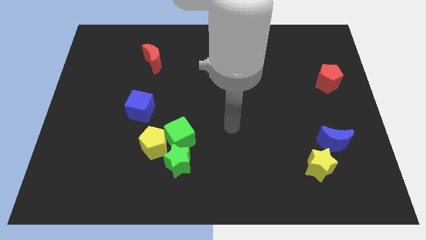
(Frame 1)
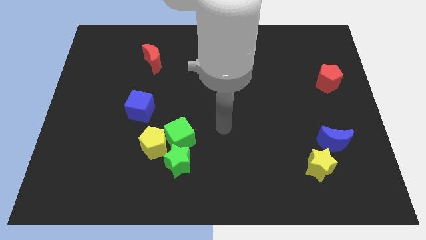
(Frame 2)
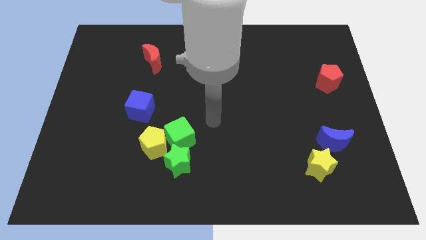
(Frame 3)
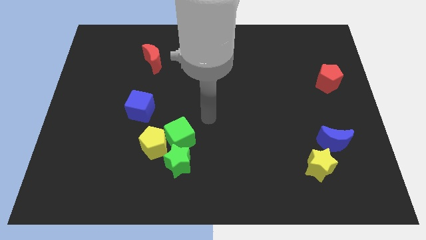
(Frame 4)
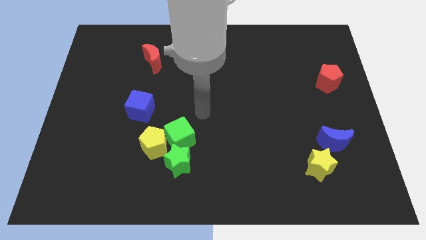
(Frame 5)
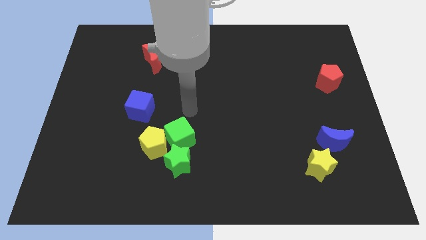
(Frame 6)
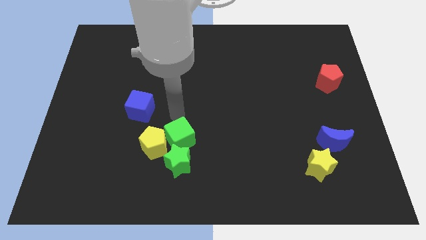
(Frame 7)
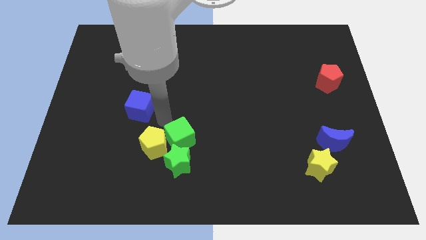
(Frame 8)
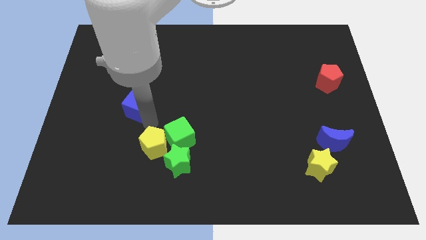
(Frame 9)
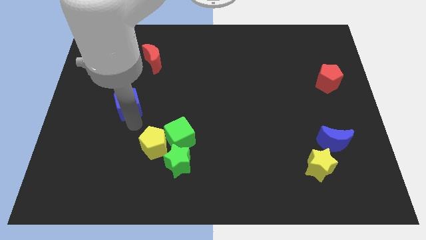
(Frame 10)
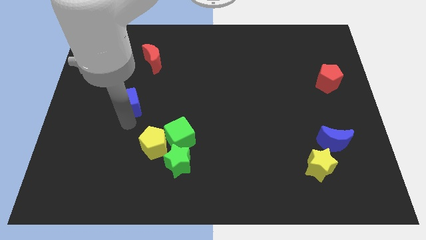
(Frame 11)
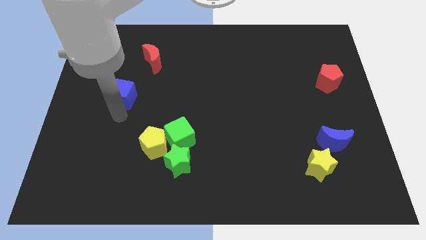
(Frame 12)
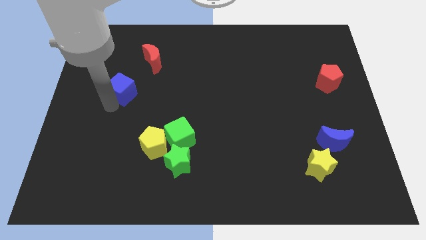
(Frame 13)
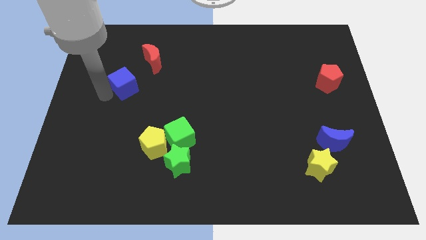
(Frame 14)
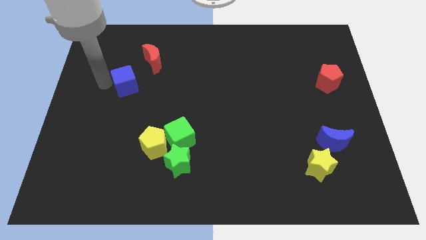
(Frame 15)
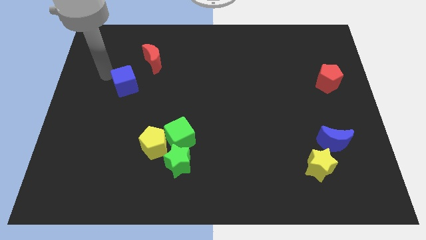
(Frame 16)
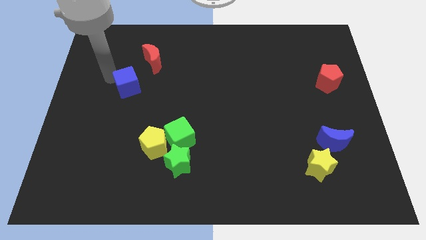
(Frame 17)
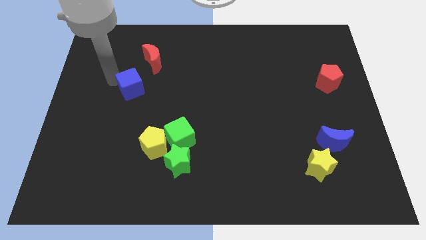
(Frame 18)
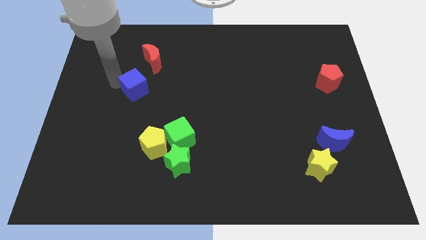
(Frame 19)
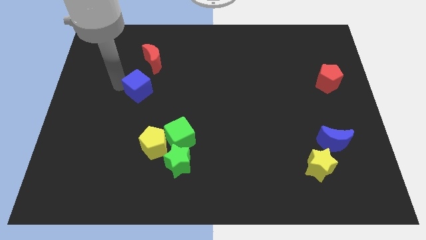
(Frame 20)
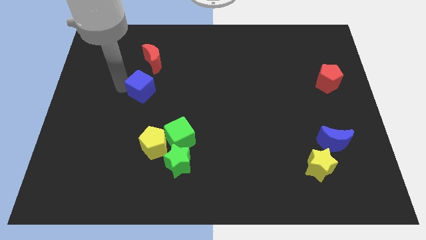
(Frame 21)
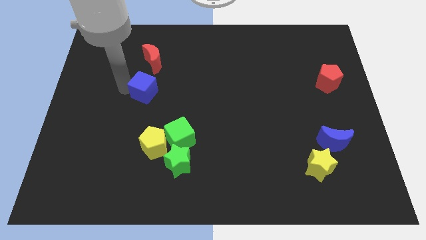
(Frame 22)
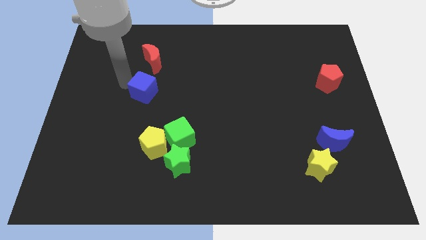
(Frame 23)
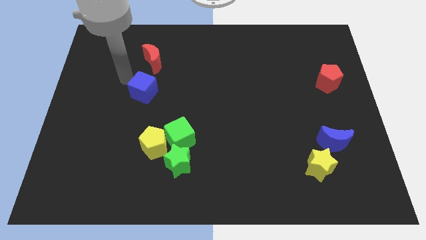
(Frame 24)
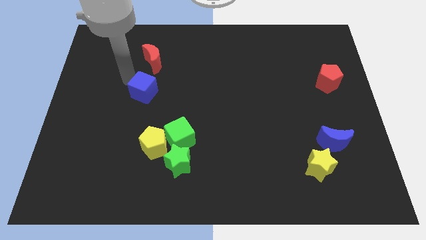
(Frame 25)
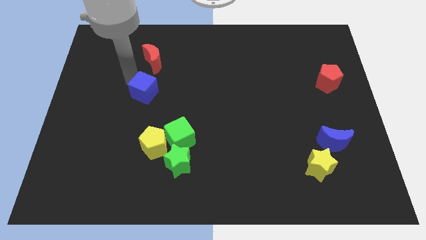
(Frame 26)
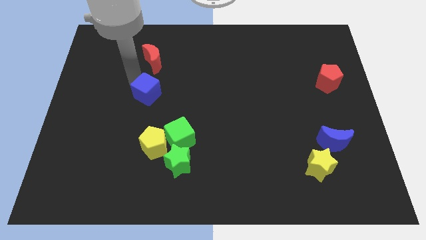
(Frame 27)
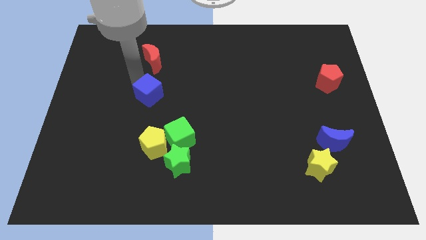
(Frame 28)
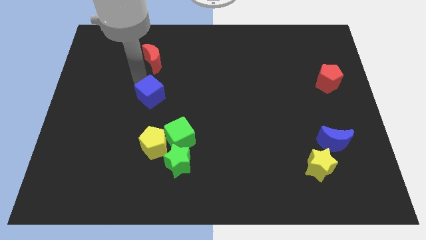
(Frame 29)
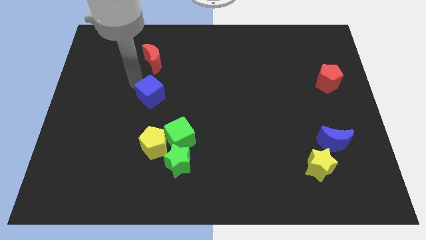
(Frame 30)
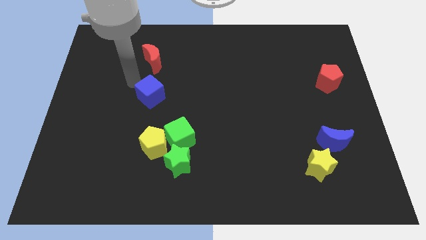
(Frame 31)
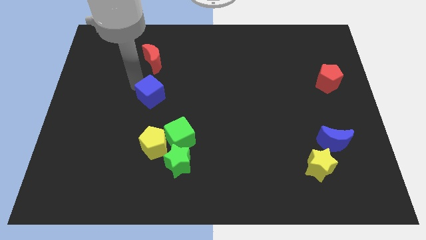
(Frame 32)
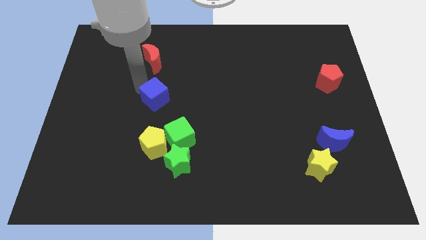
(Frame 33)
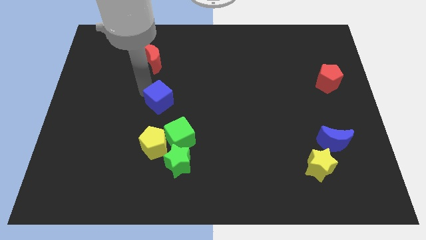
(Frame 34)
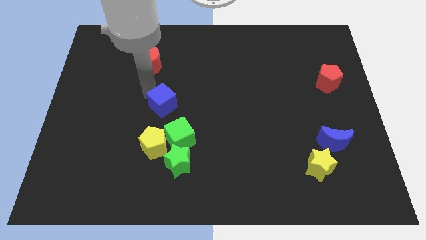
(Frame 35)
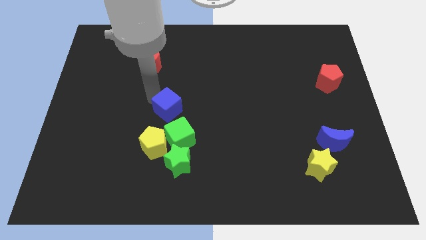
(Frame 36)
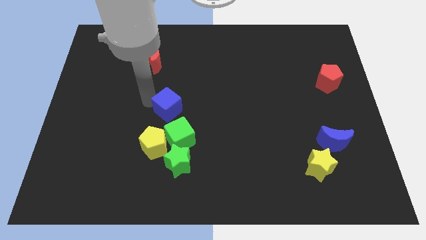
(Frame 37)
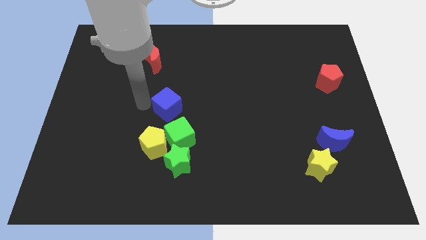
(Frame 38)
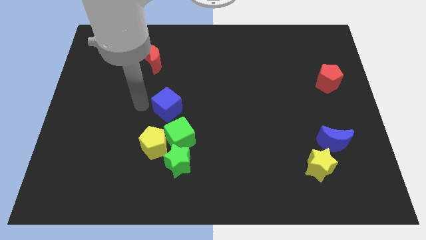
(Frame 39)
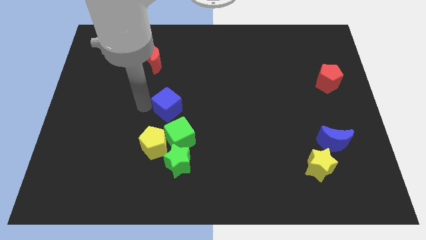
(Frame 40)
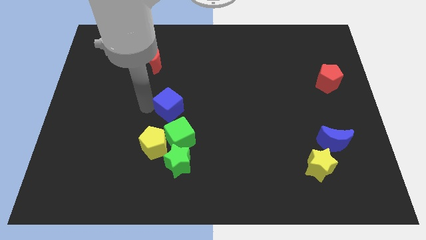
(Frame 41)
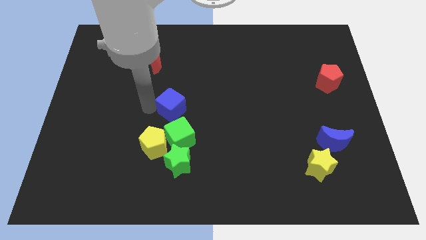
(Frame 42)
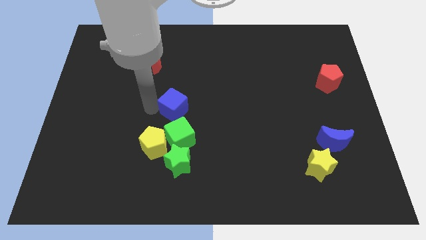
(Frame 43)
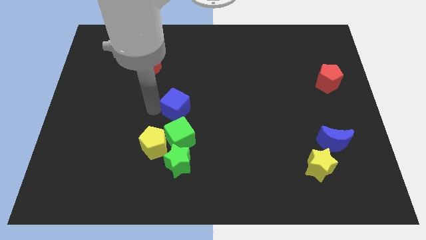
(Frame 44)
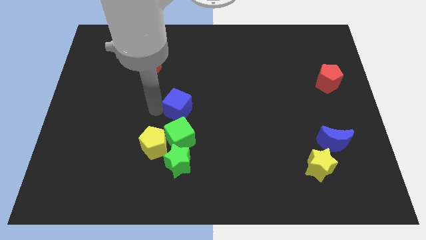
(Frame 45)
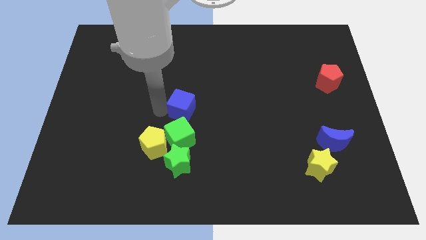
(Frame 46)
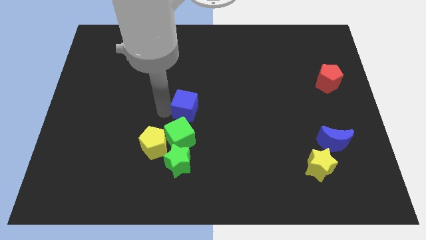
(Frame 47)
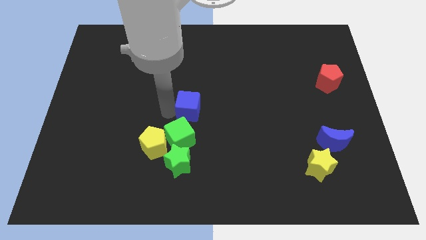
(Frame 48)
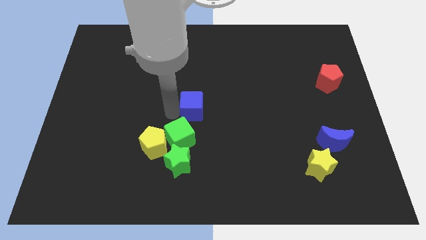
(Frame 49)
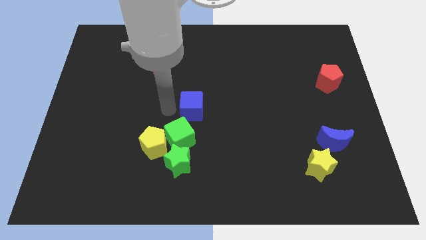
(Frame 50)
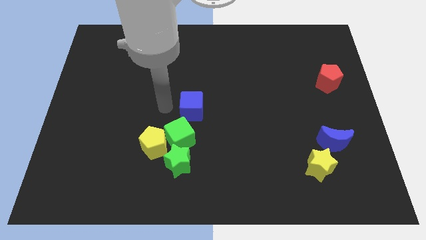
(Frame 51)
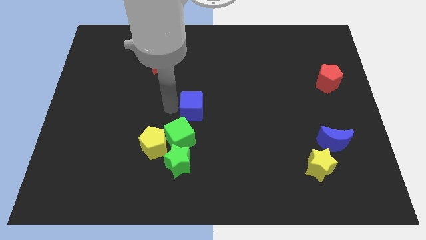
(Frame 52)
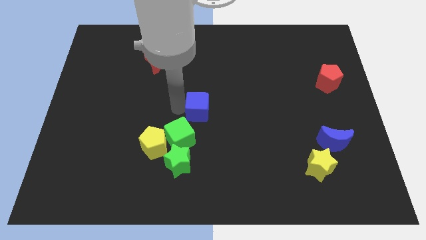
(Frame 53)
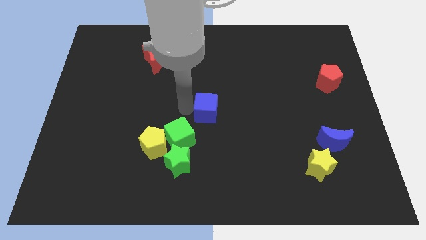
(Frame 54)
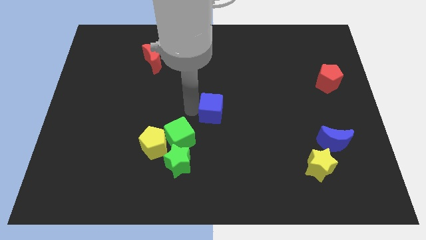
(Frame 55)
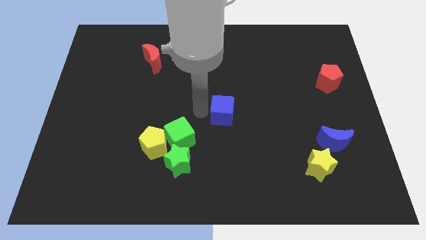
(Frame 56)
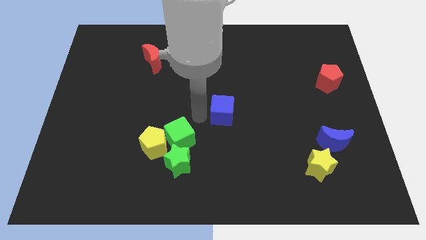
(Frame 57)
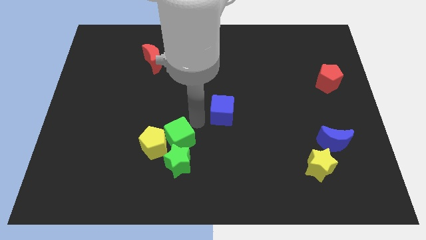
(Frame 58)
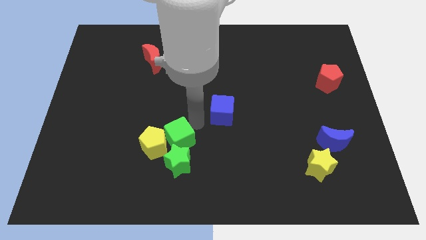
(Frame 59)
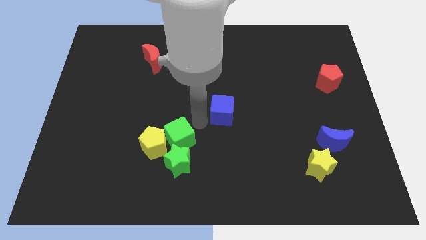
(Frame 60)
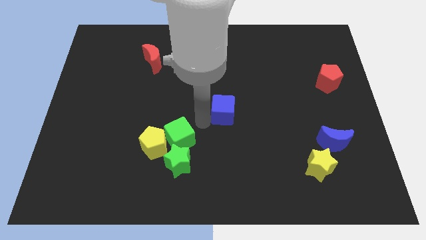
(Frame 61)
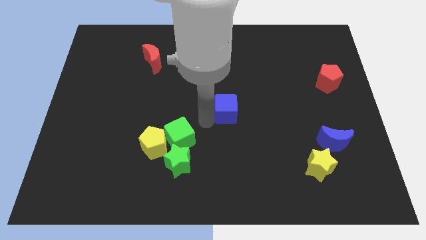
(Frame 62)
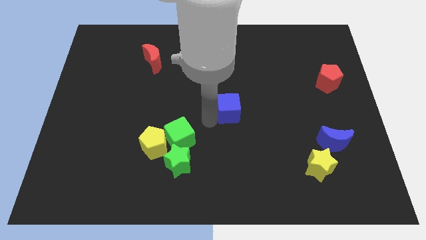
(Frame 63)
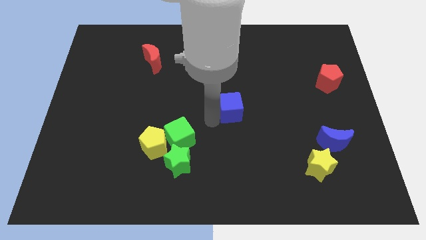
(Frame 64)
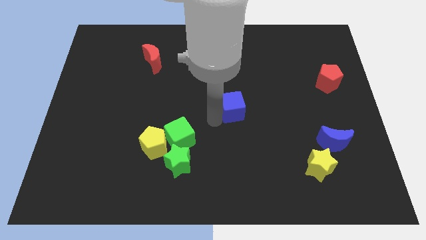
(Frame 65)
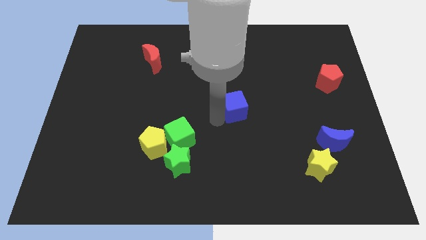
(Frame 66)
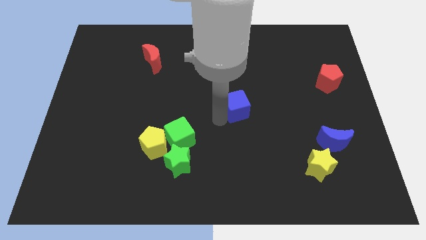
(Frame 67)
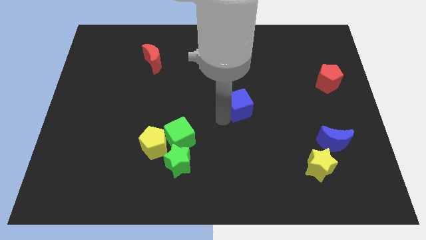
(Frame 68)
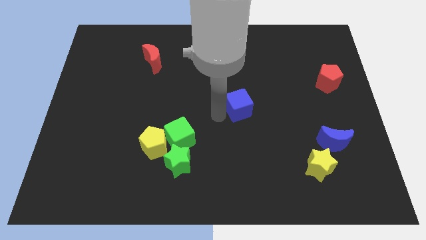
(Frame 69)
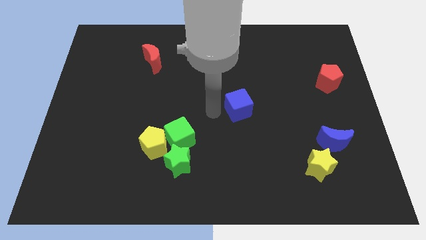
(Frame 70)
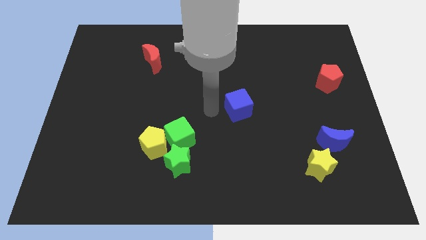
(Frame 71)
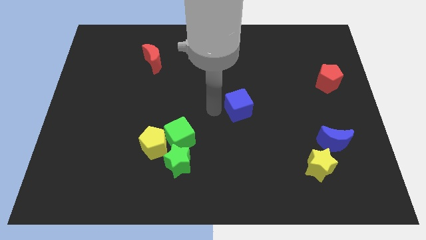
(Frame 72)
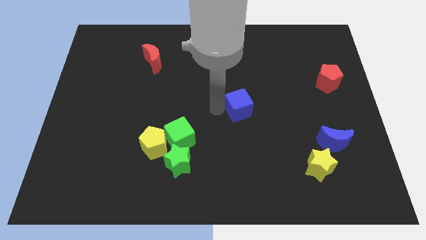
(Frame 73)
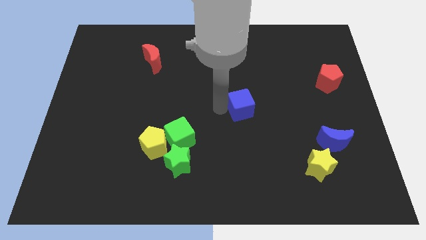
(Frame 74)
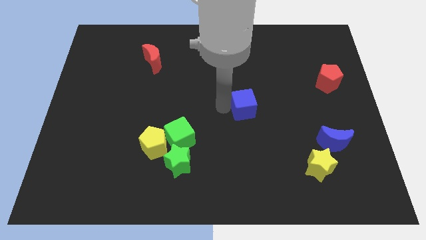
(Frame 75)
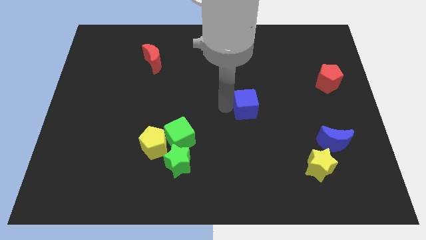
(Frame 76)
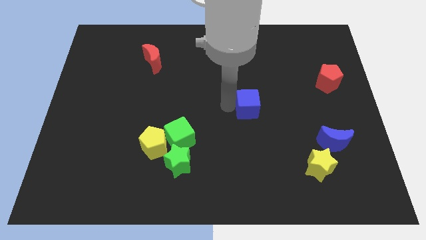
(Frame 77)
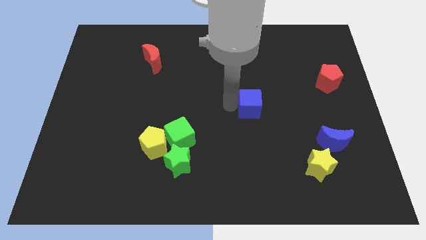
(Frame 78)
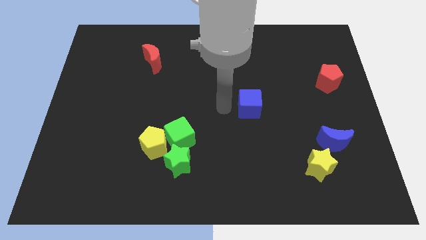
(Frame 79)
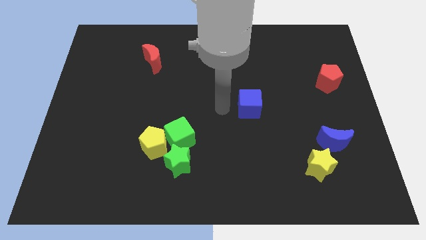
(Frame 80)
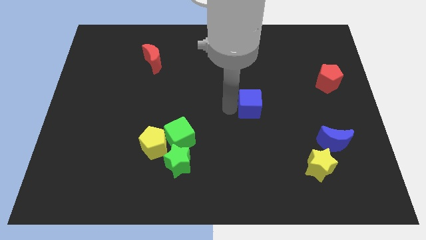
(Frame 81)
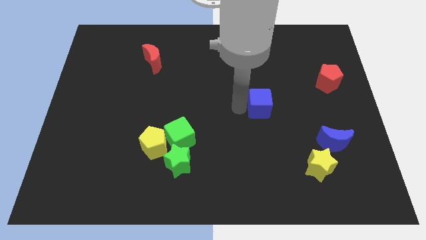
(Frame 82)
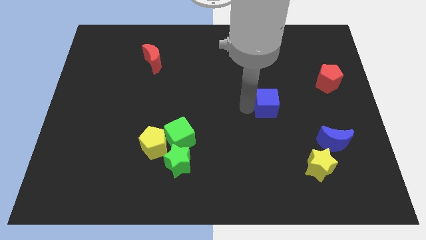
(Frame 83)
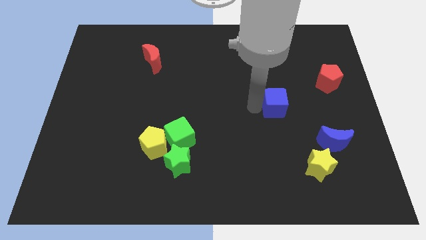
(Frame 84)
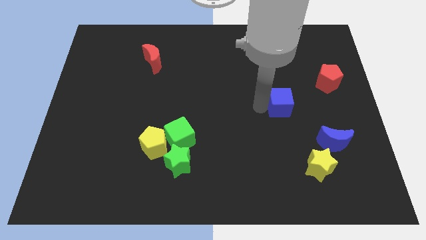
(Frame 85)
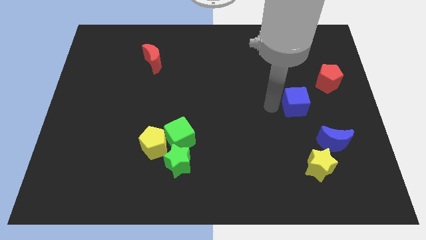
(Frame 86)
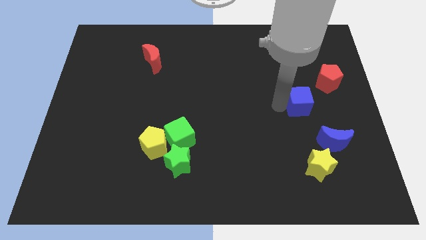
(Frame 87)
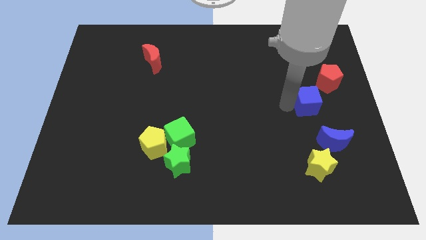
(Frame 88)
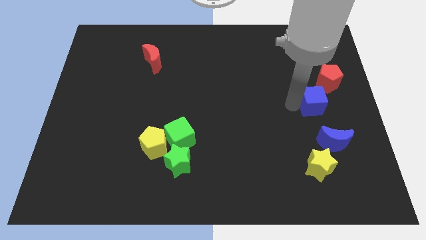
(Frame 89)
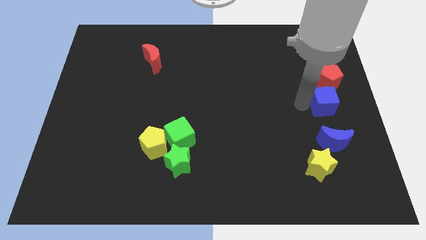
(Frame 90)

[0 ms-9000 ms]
push the blue cube to the right side
